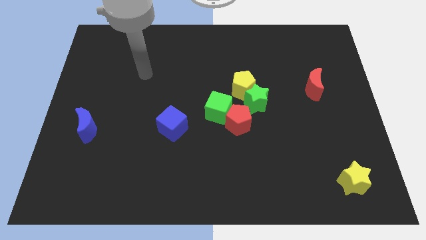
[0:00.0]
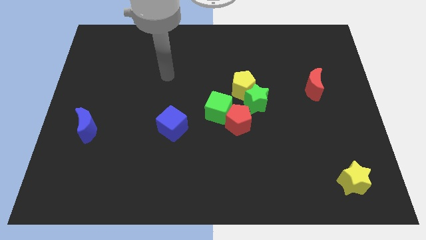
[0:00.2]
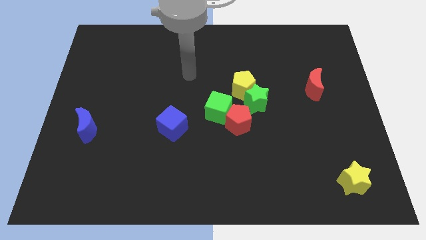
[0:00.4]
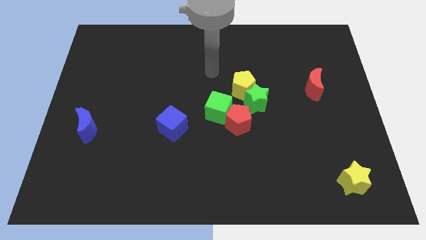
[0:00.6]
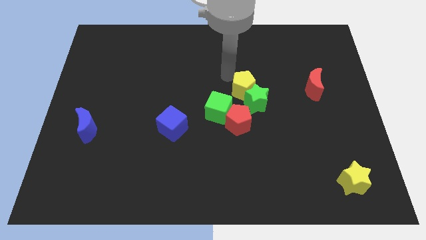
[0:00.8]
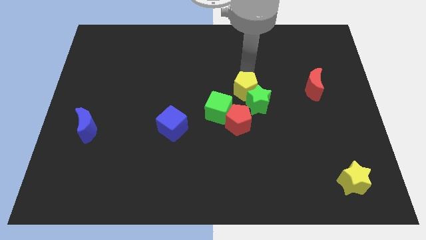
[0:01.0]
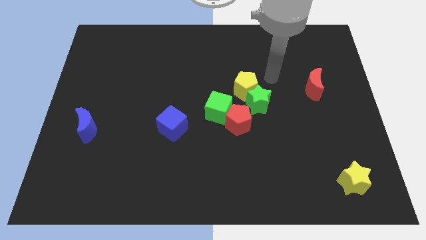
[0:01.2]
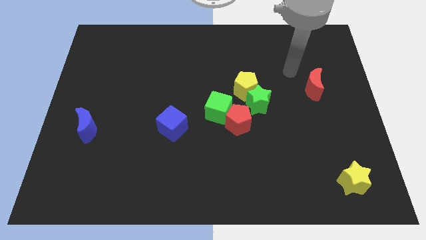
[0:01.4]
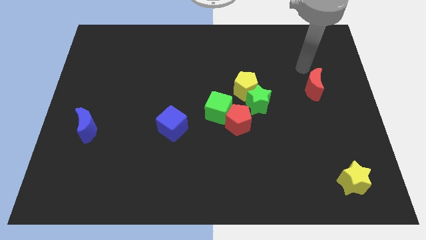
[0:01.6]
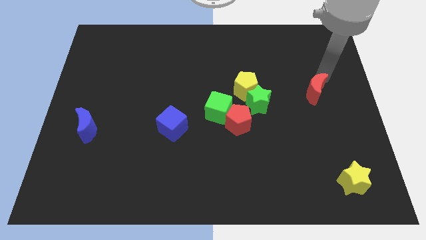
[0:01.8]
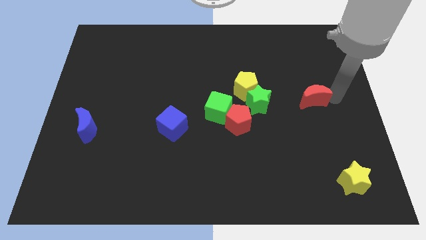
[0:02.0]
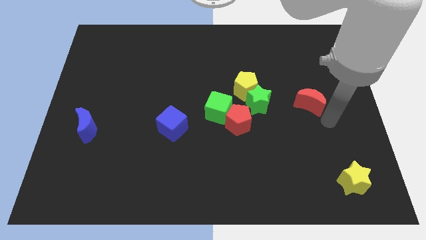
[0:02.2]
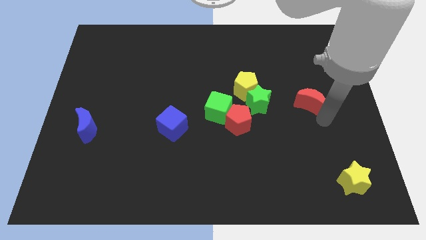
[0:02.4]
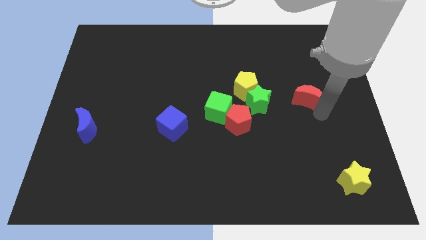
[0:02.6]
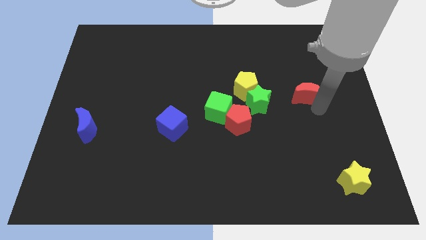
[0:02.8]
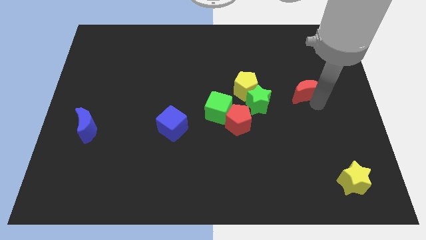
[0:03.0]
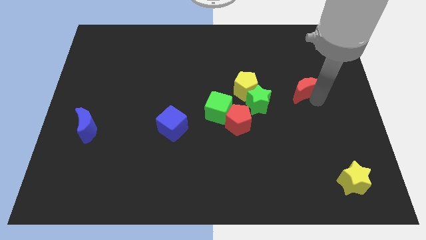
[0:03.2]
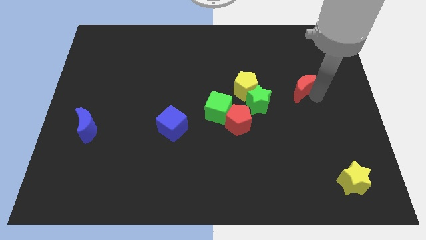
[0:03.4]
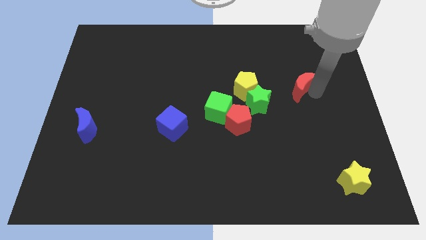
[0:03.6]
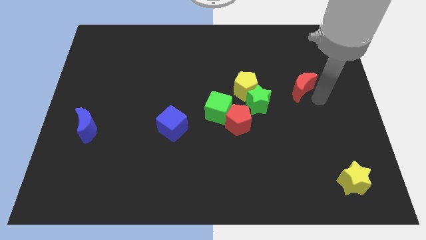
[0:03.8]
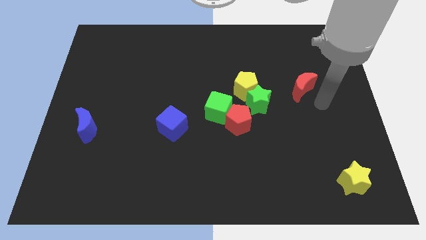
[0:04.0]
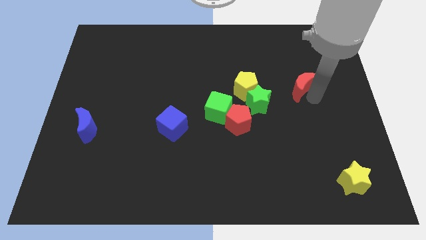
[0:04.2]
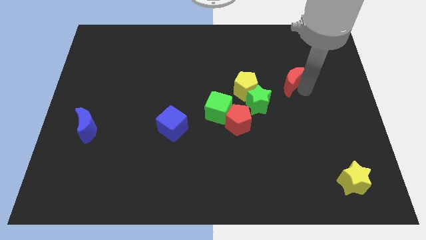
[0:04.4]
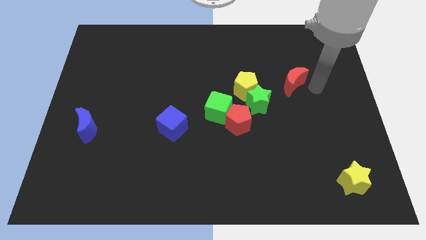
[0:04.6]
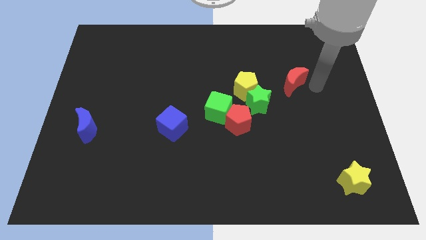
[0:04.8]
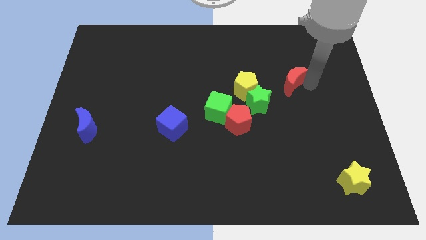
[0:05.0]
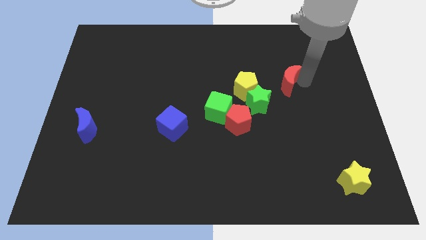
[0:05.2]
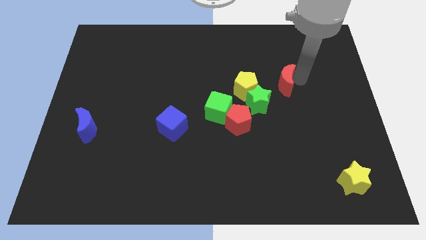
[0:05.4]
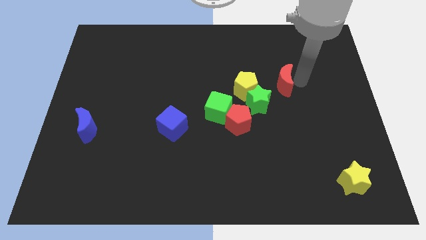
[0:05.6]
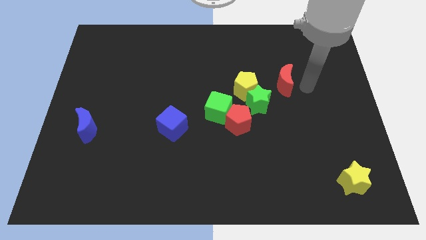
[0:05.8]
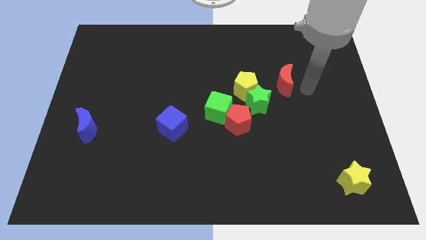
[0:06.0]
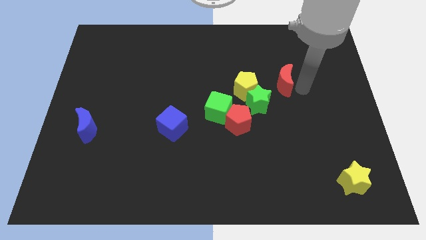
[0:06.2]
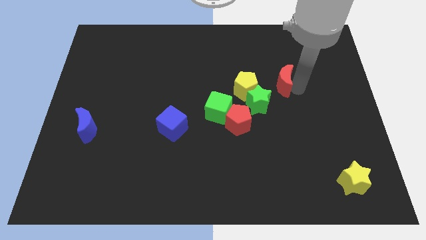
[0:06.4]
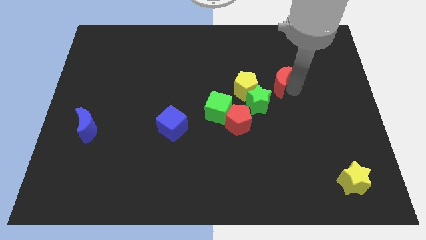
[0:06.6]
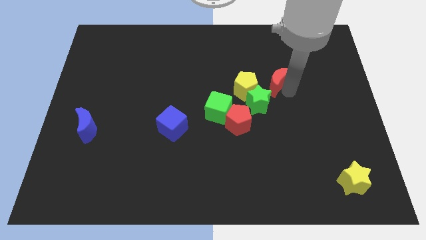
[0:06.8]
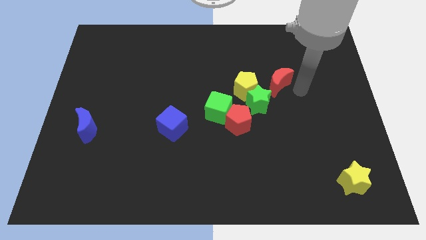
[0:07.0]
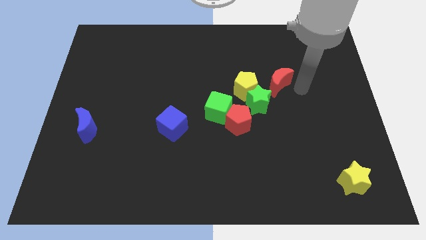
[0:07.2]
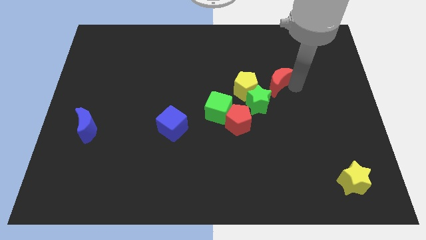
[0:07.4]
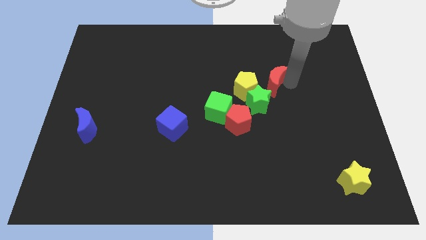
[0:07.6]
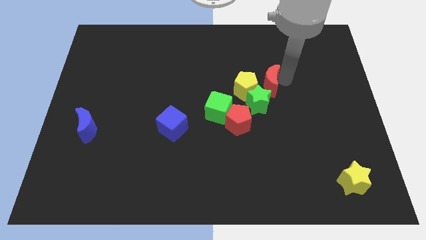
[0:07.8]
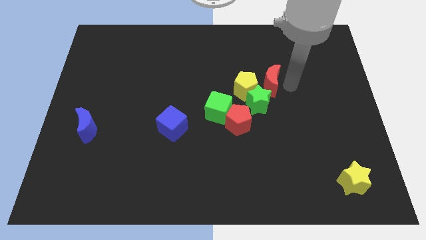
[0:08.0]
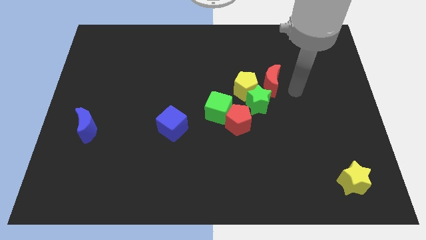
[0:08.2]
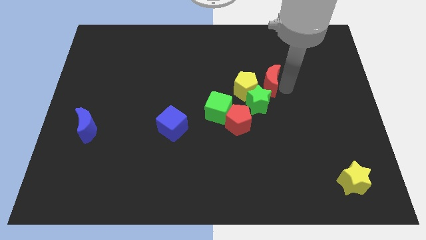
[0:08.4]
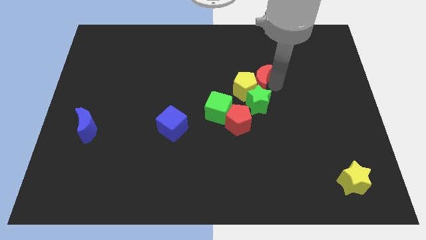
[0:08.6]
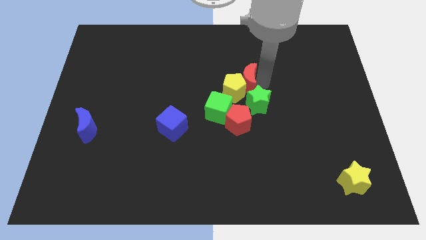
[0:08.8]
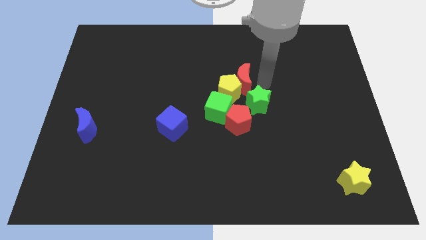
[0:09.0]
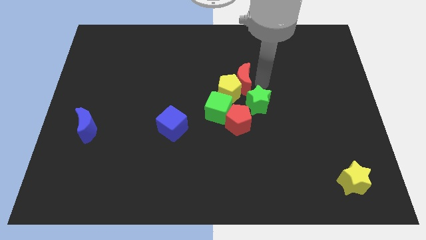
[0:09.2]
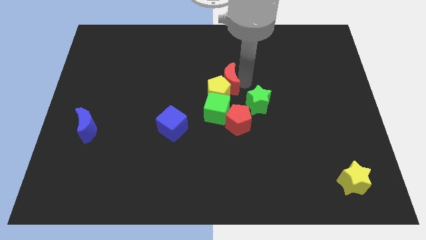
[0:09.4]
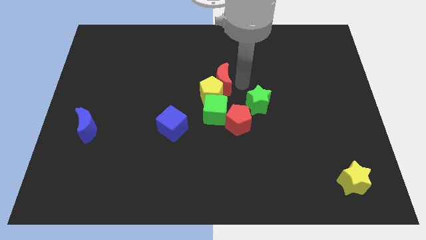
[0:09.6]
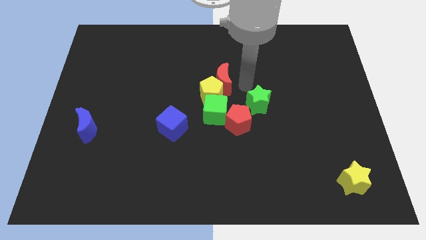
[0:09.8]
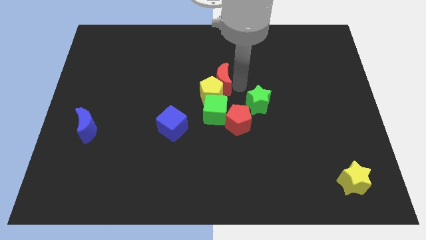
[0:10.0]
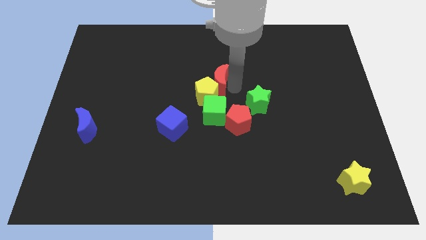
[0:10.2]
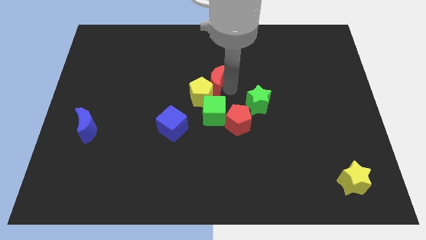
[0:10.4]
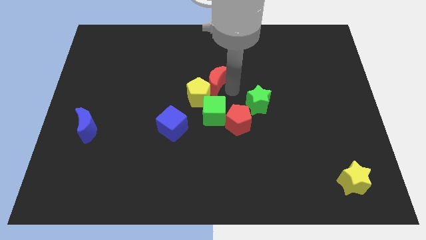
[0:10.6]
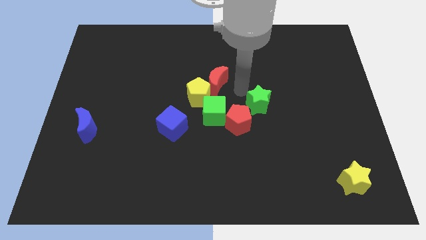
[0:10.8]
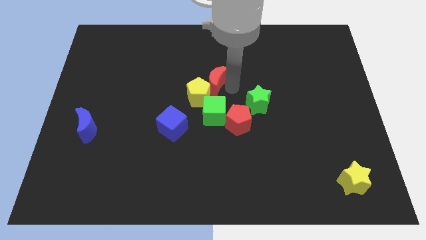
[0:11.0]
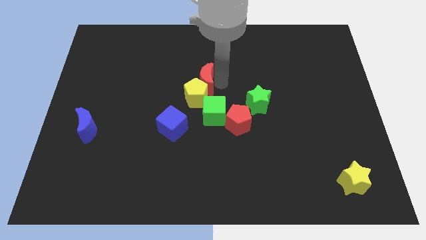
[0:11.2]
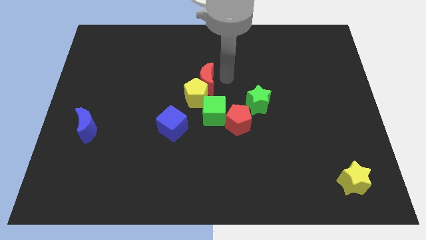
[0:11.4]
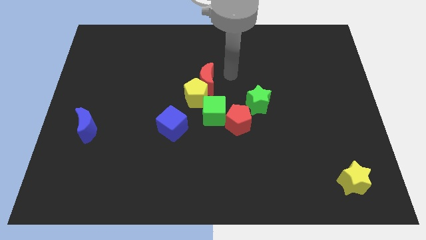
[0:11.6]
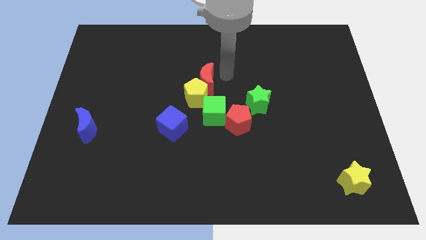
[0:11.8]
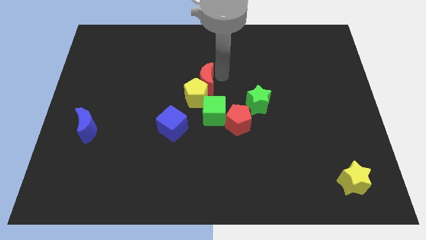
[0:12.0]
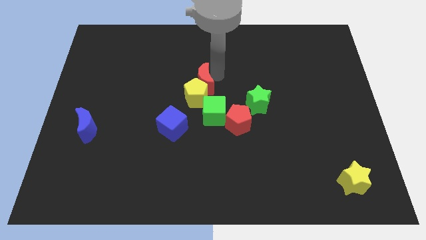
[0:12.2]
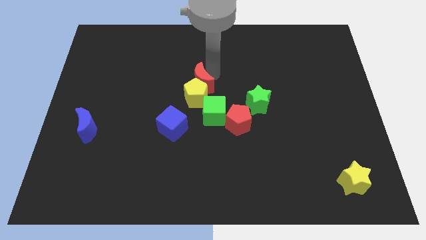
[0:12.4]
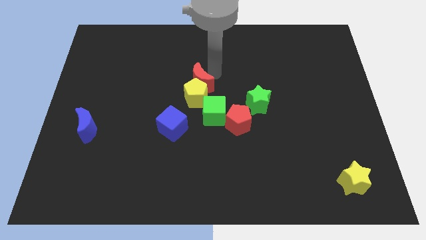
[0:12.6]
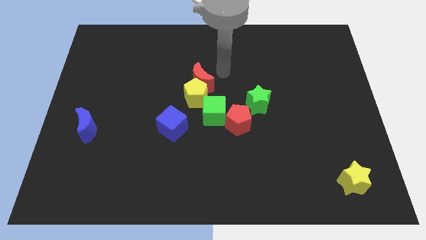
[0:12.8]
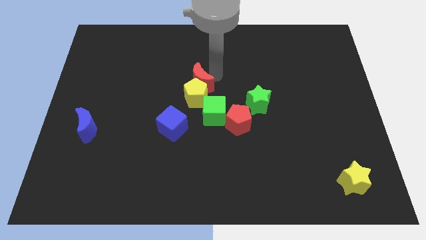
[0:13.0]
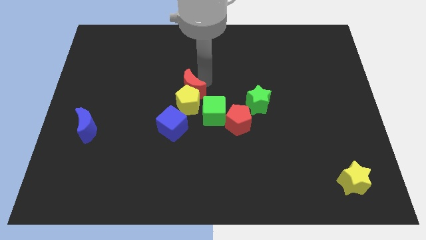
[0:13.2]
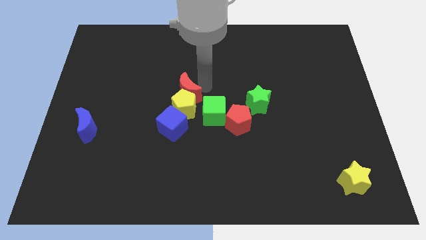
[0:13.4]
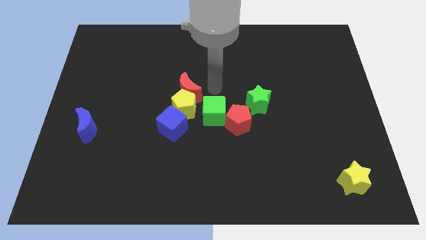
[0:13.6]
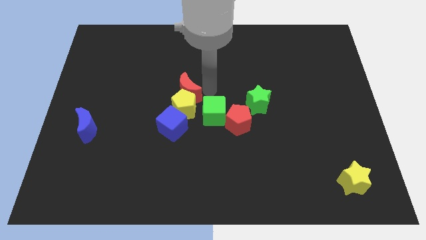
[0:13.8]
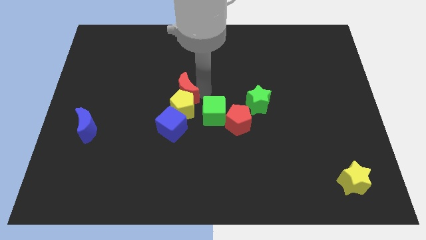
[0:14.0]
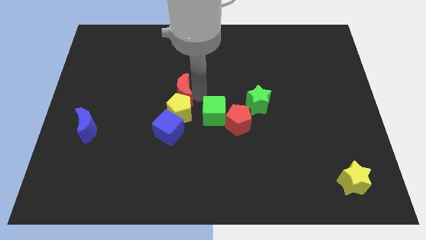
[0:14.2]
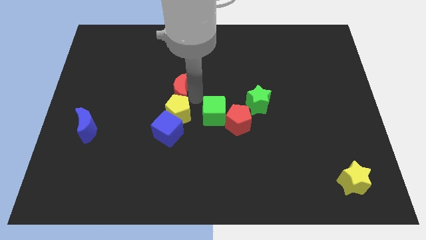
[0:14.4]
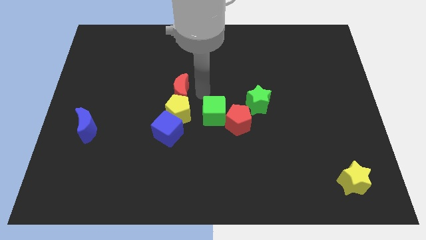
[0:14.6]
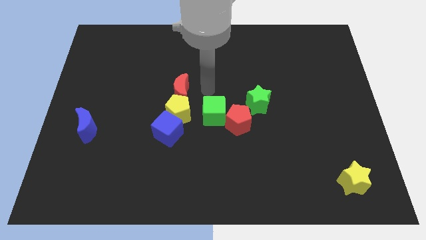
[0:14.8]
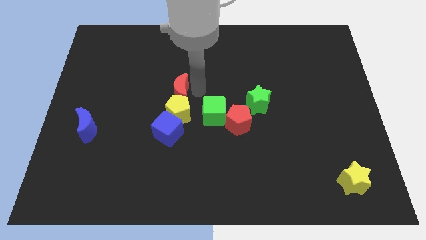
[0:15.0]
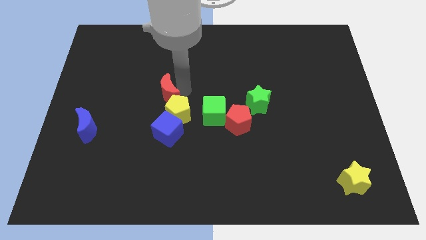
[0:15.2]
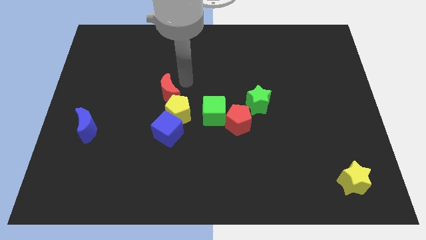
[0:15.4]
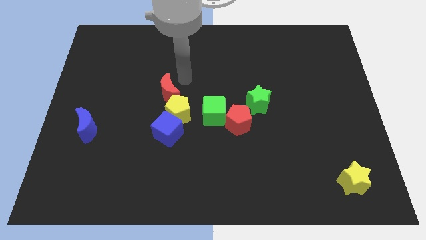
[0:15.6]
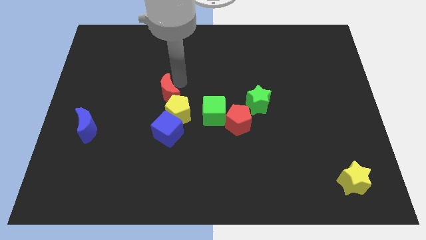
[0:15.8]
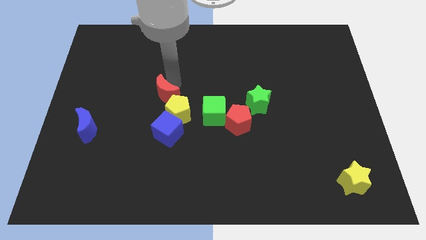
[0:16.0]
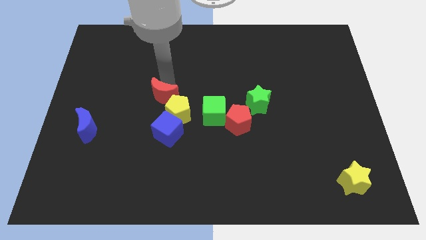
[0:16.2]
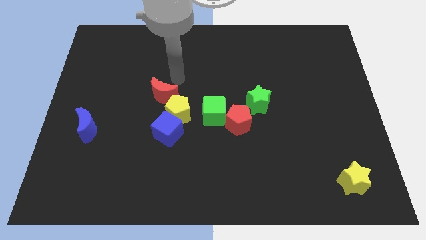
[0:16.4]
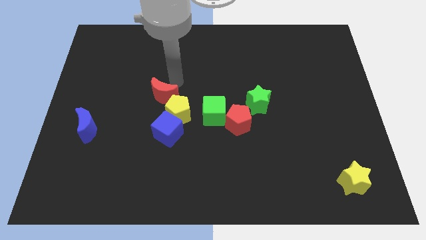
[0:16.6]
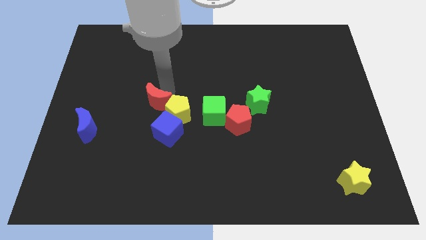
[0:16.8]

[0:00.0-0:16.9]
move the red moon to the top left side of the blue cube
